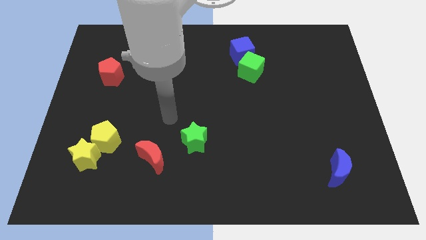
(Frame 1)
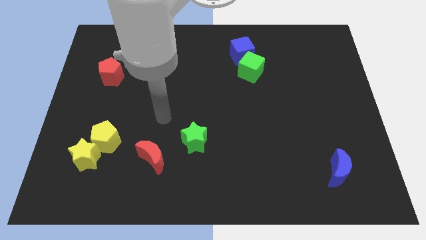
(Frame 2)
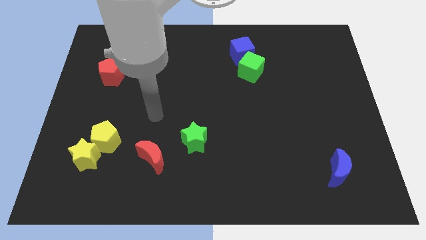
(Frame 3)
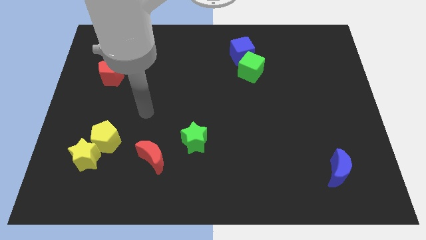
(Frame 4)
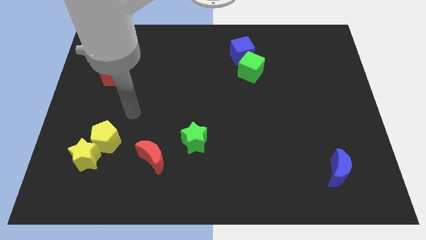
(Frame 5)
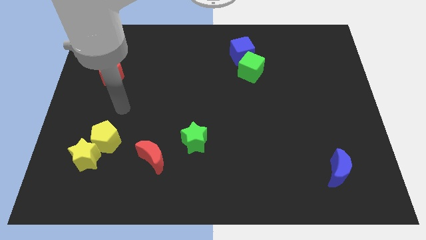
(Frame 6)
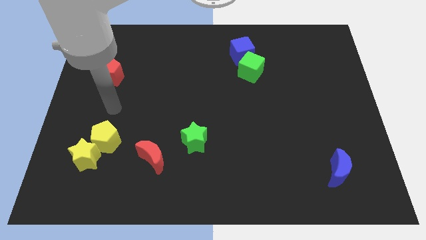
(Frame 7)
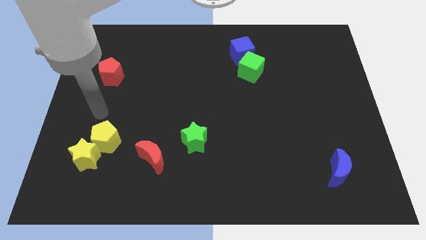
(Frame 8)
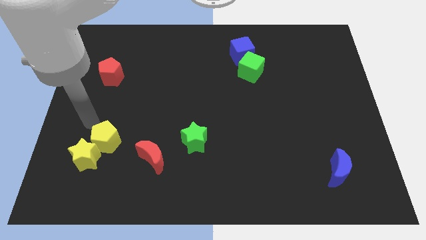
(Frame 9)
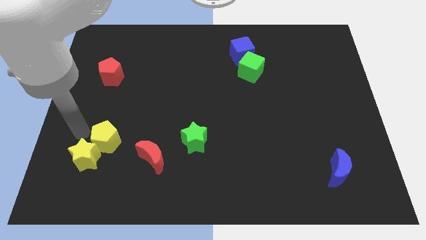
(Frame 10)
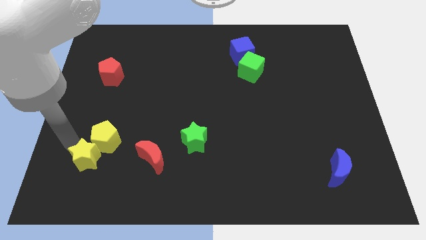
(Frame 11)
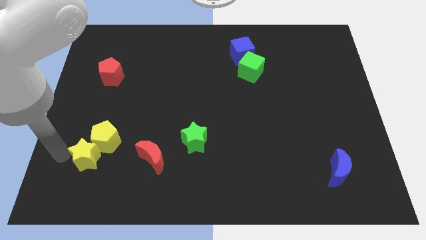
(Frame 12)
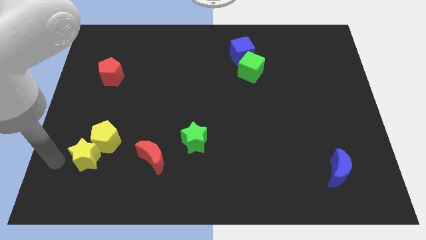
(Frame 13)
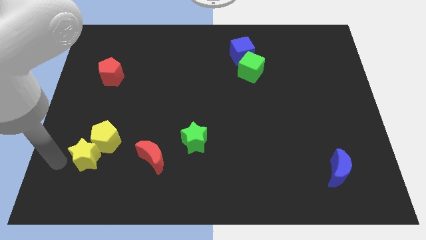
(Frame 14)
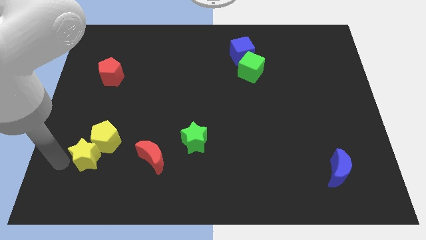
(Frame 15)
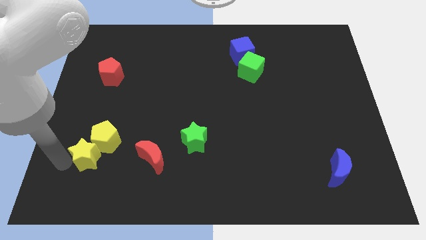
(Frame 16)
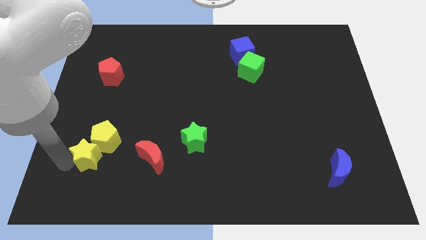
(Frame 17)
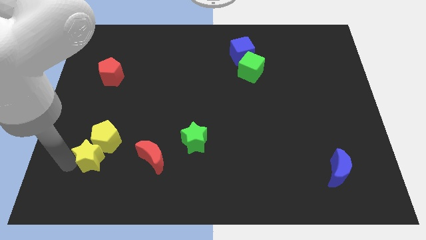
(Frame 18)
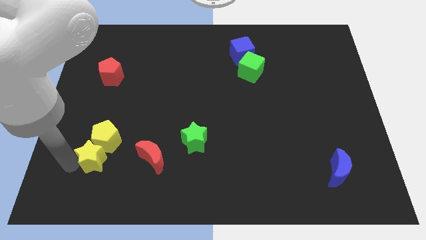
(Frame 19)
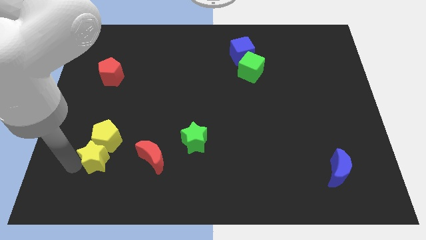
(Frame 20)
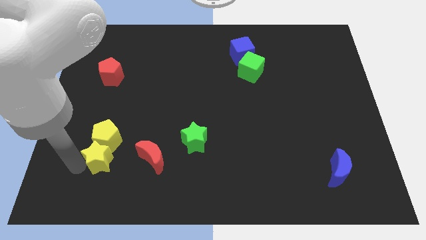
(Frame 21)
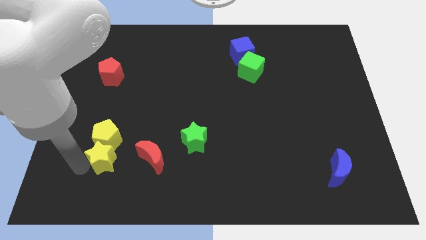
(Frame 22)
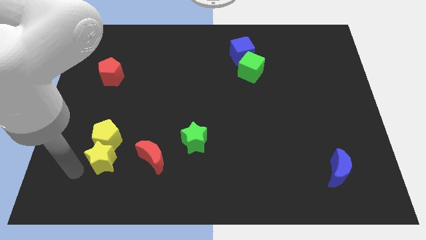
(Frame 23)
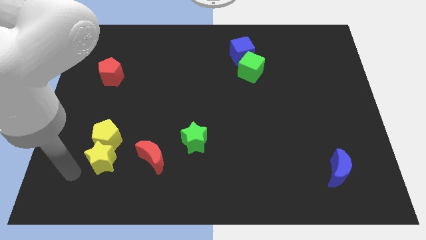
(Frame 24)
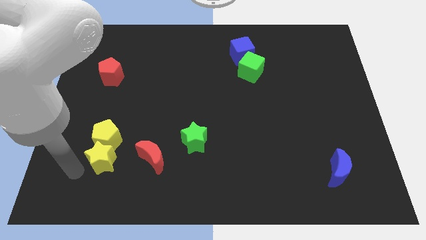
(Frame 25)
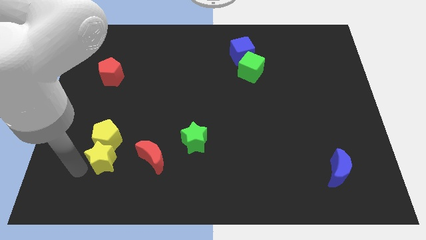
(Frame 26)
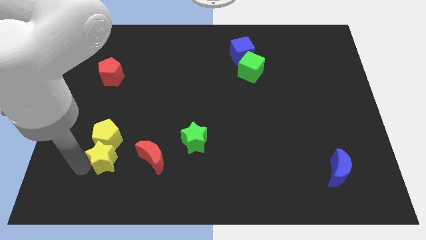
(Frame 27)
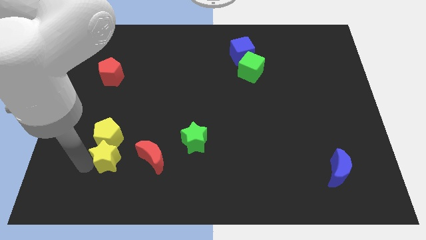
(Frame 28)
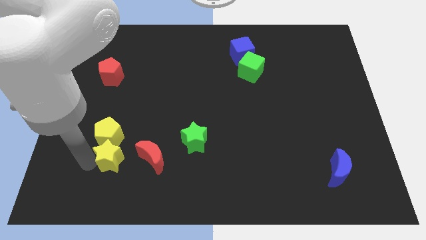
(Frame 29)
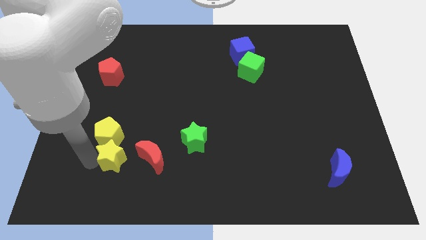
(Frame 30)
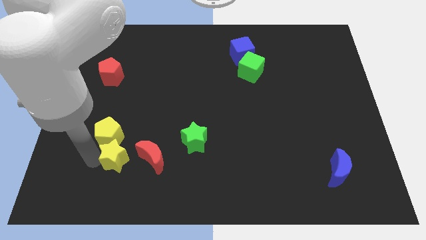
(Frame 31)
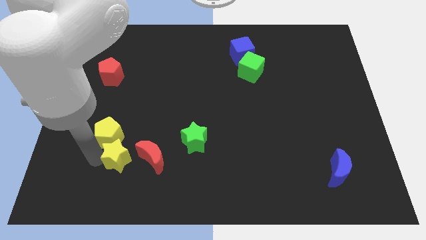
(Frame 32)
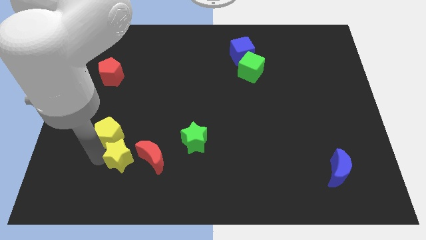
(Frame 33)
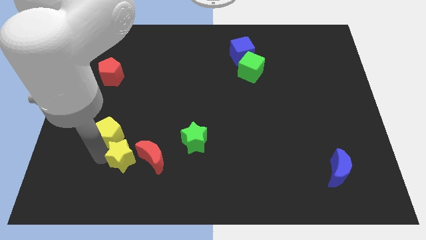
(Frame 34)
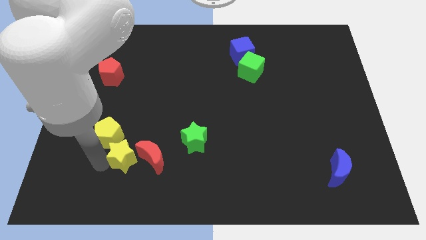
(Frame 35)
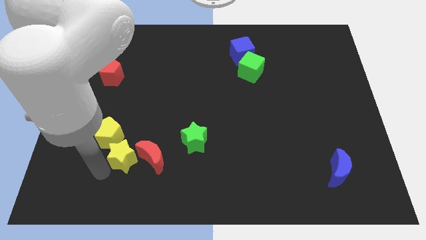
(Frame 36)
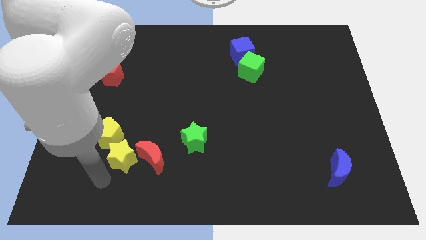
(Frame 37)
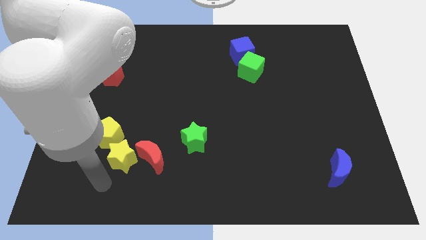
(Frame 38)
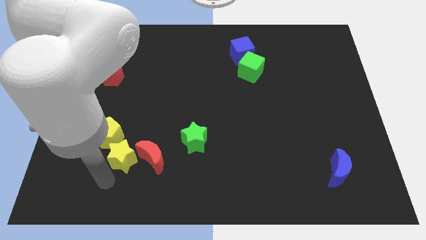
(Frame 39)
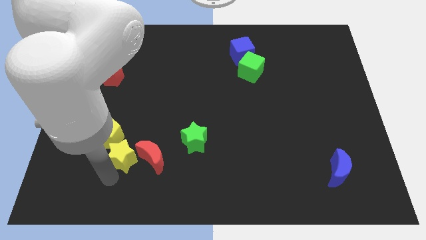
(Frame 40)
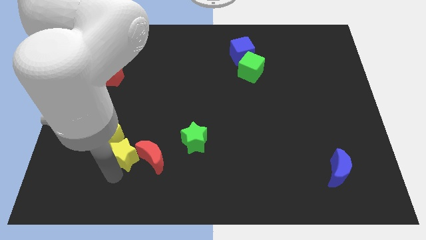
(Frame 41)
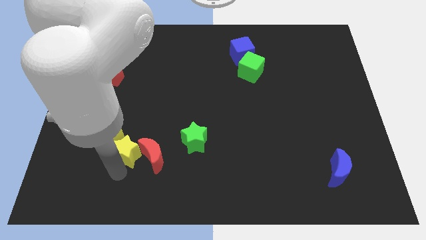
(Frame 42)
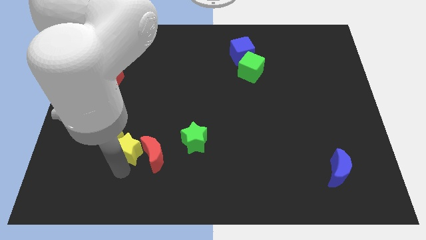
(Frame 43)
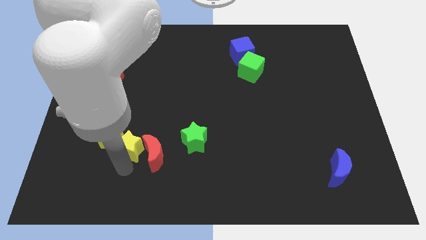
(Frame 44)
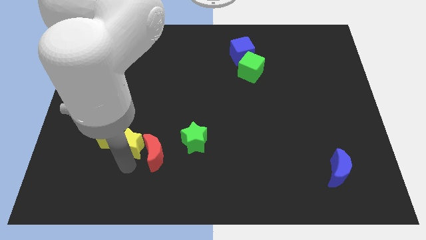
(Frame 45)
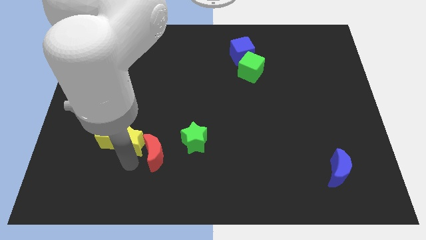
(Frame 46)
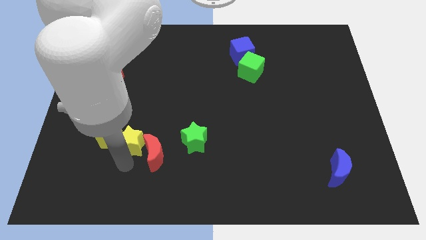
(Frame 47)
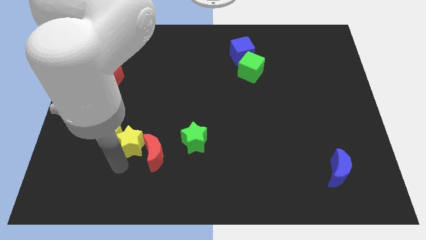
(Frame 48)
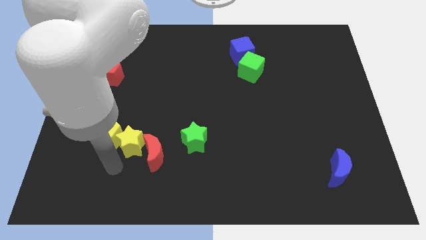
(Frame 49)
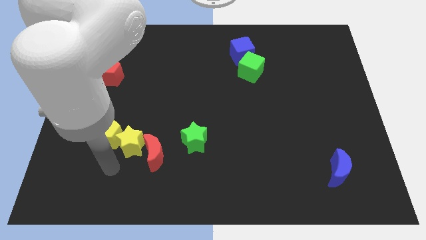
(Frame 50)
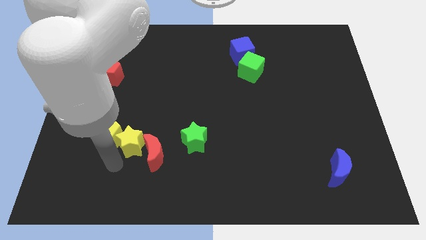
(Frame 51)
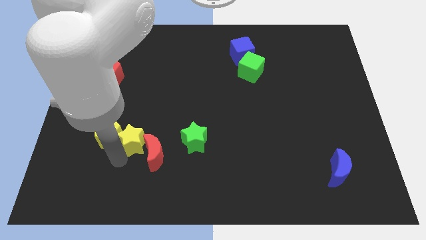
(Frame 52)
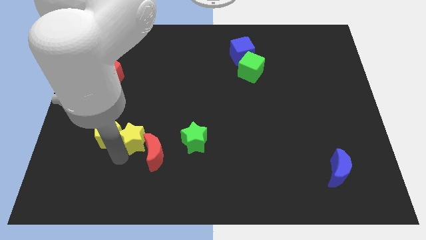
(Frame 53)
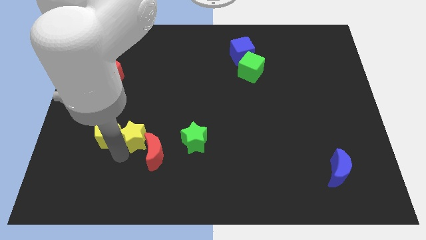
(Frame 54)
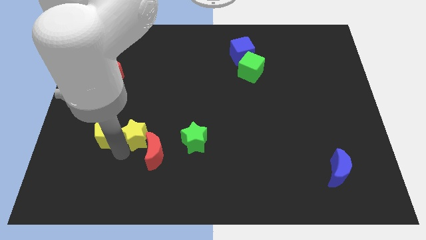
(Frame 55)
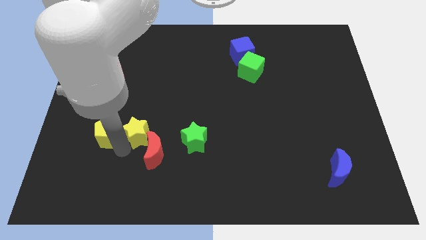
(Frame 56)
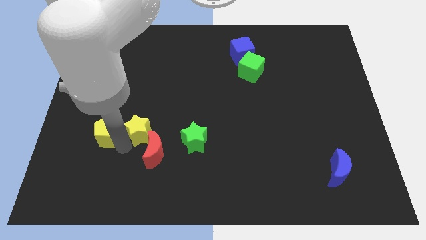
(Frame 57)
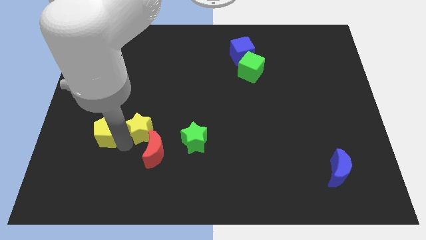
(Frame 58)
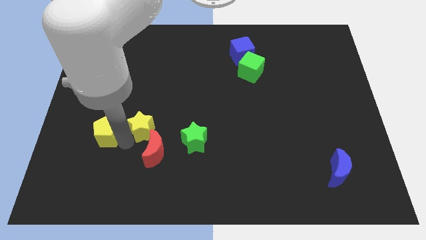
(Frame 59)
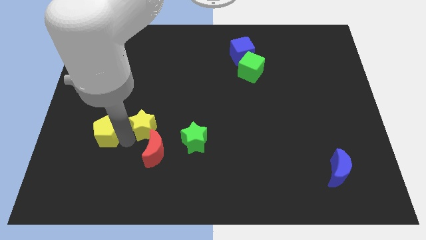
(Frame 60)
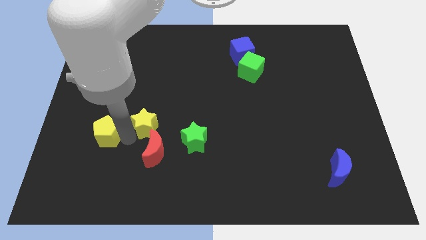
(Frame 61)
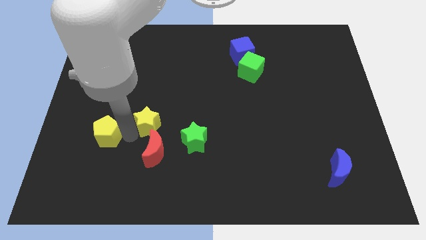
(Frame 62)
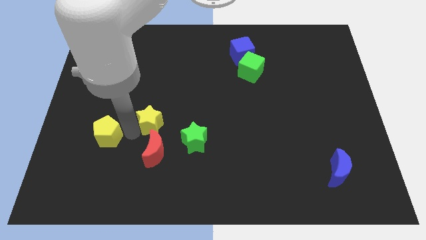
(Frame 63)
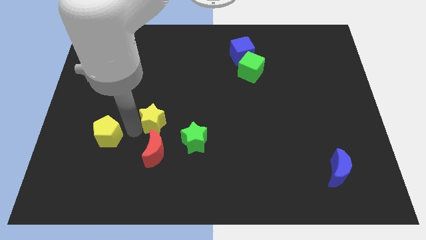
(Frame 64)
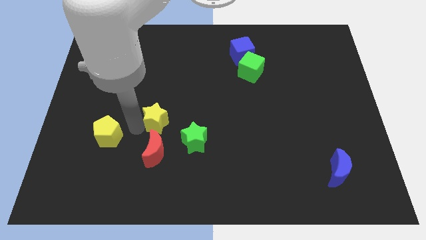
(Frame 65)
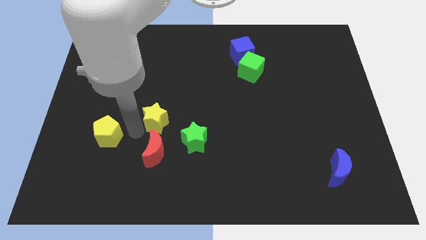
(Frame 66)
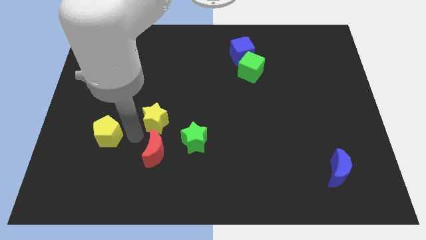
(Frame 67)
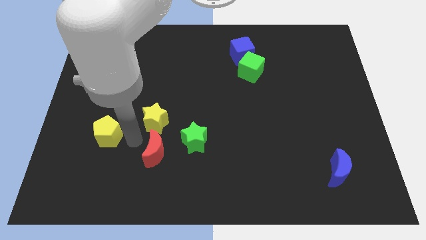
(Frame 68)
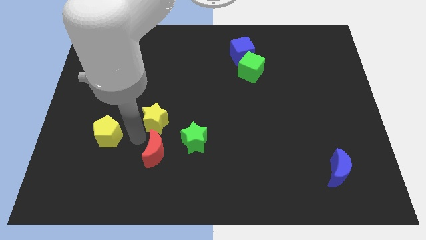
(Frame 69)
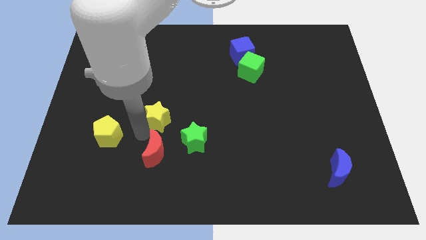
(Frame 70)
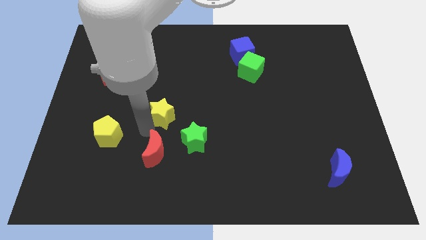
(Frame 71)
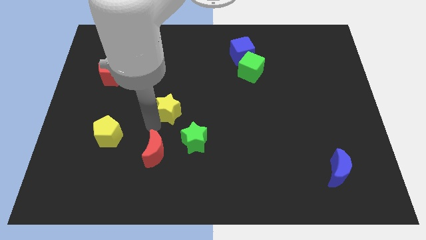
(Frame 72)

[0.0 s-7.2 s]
move the yellow star upwards and then right

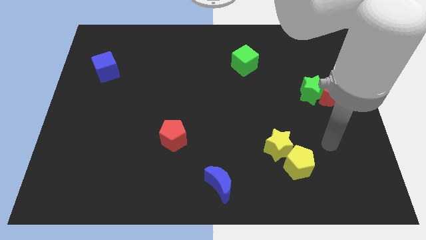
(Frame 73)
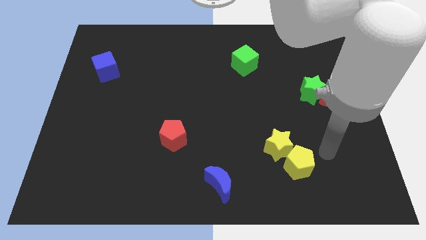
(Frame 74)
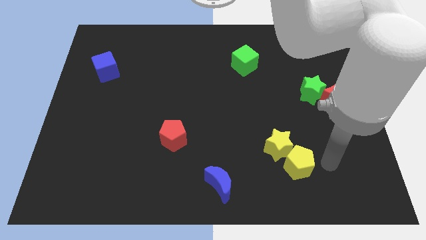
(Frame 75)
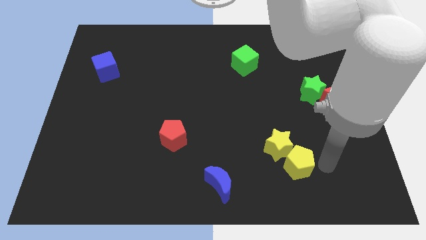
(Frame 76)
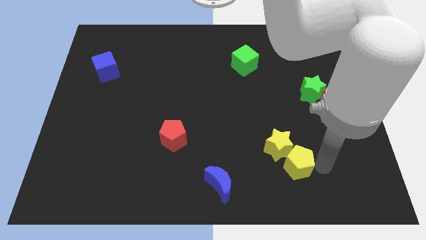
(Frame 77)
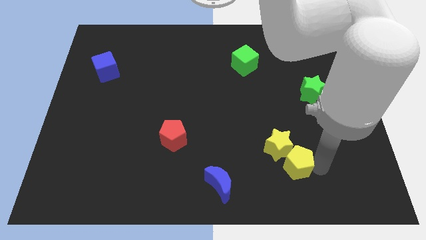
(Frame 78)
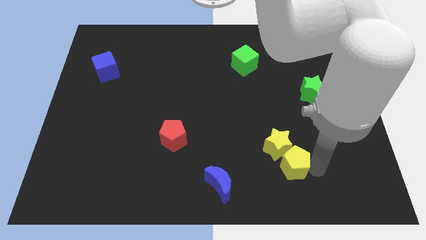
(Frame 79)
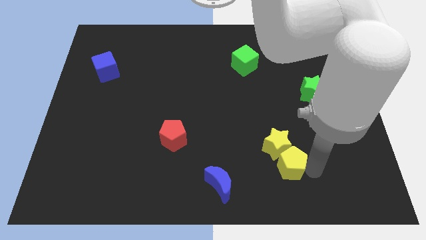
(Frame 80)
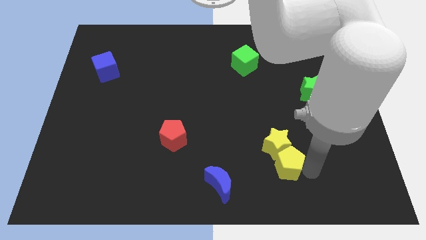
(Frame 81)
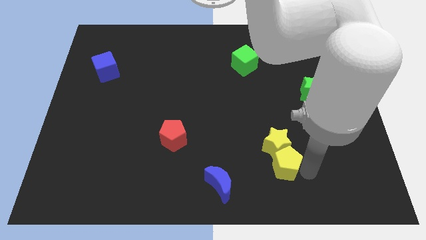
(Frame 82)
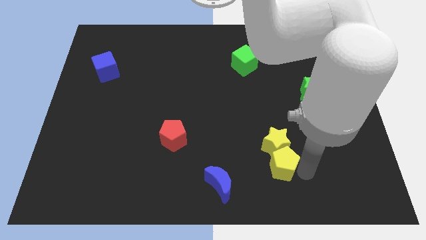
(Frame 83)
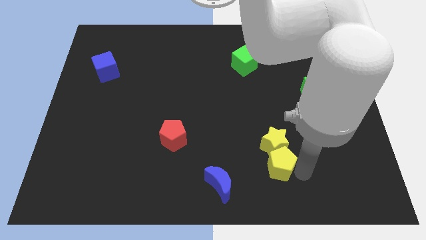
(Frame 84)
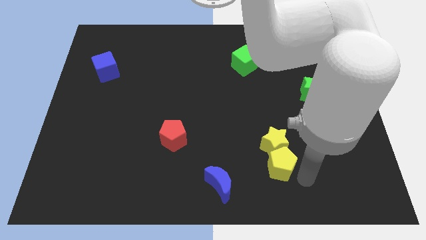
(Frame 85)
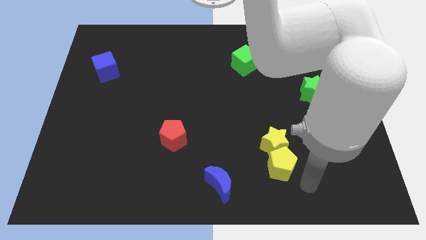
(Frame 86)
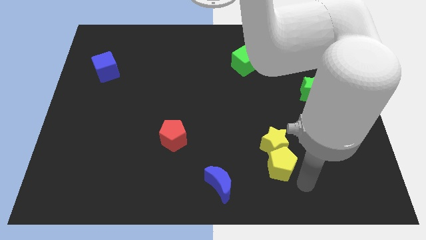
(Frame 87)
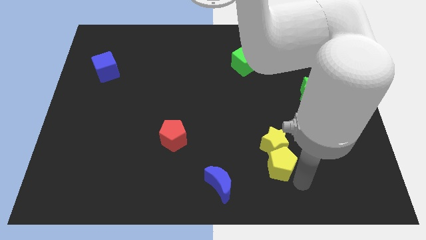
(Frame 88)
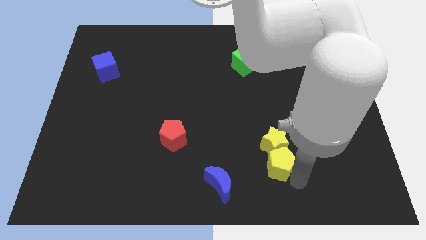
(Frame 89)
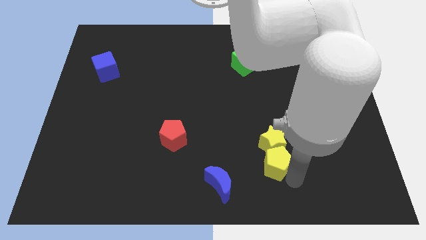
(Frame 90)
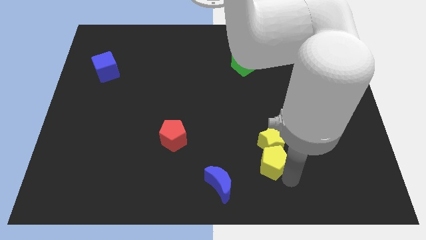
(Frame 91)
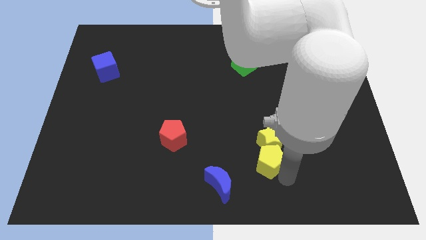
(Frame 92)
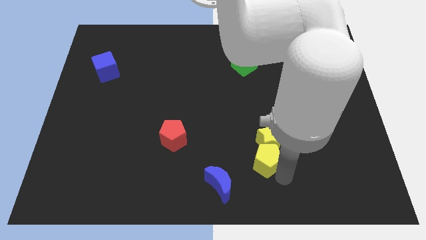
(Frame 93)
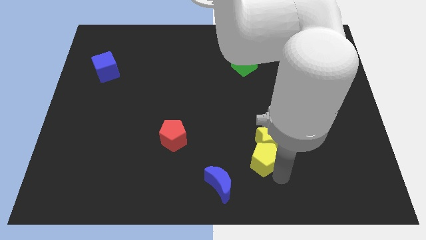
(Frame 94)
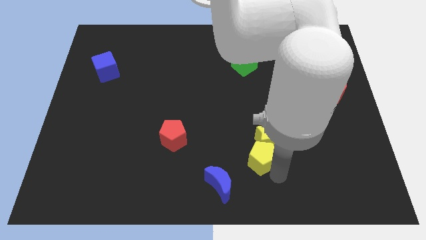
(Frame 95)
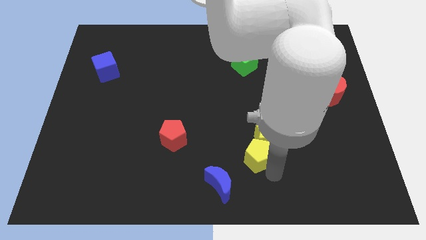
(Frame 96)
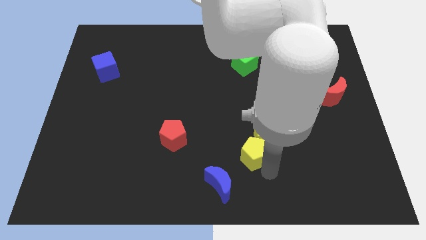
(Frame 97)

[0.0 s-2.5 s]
move the yellow pentagon upwards and then left a little
